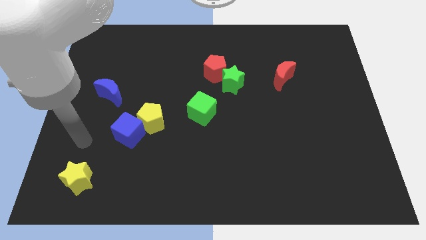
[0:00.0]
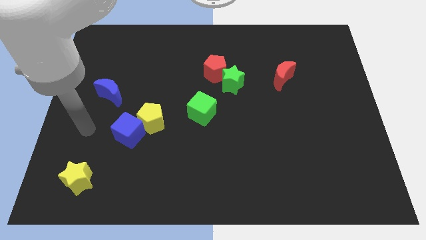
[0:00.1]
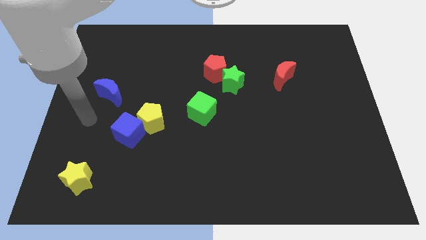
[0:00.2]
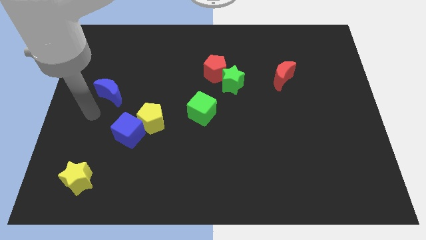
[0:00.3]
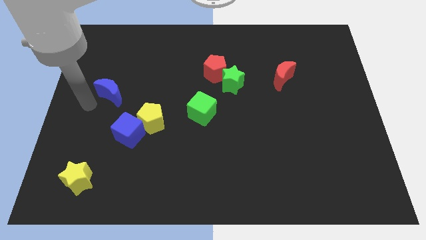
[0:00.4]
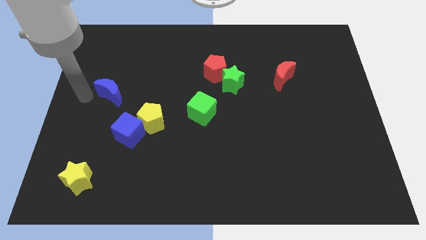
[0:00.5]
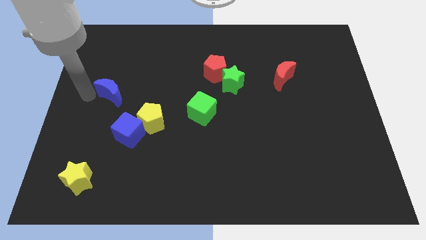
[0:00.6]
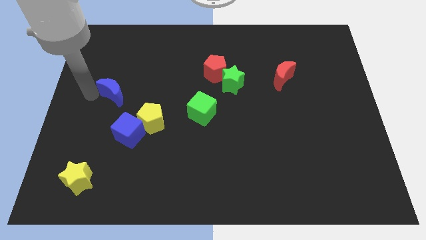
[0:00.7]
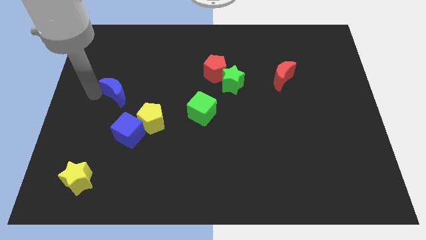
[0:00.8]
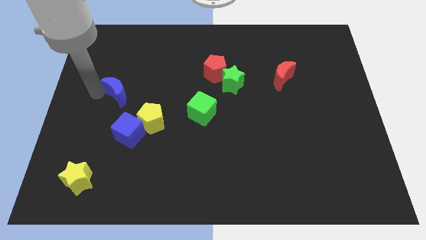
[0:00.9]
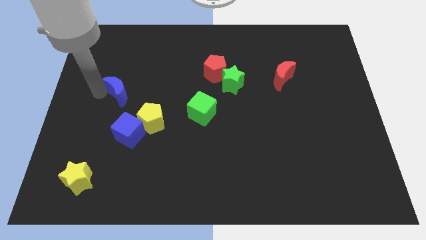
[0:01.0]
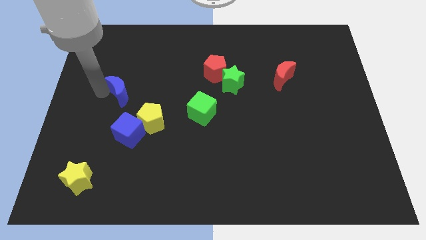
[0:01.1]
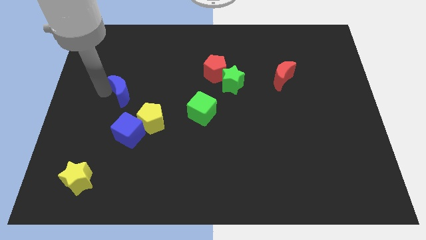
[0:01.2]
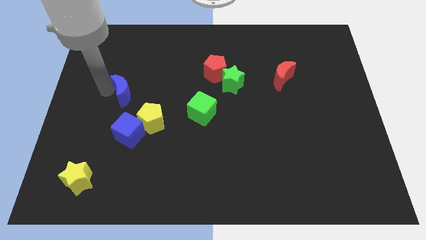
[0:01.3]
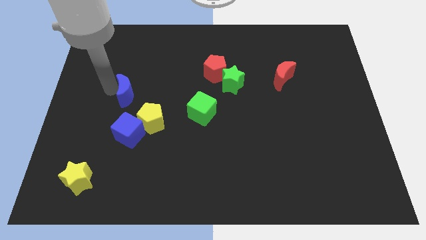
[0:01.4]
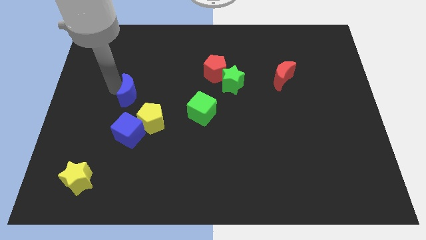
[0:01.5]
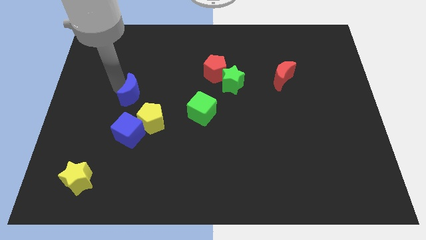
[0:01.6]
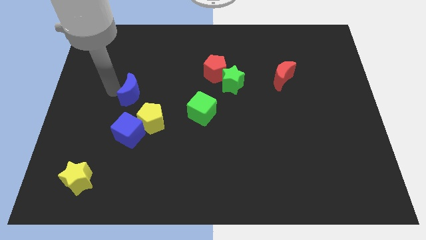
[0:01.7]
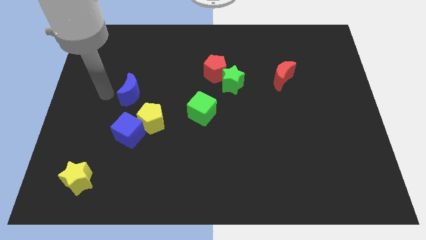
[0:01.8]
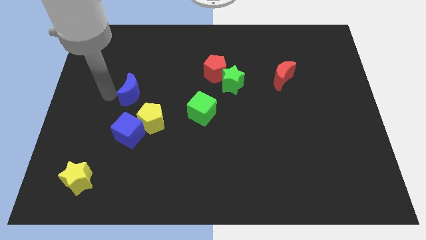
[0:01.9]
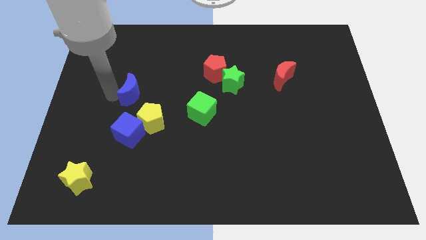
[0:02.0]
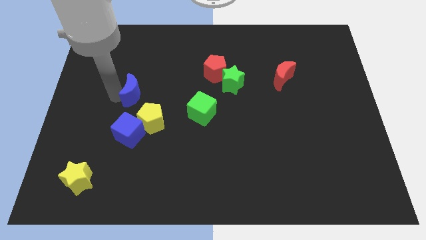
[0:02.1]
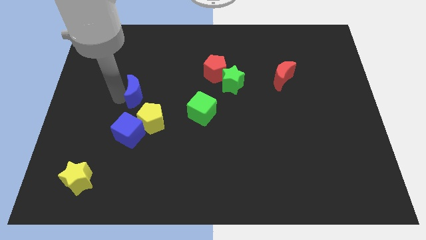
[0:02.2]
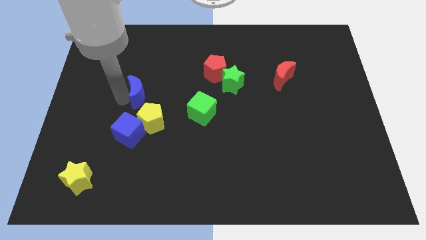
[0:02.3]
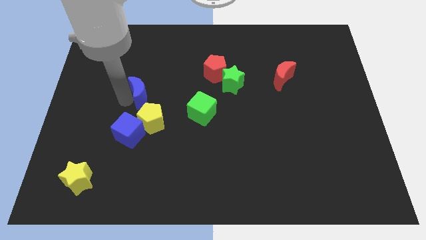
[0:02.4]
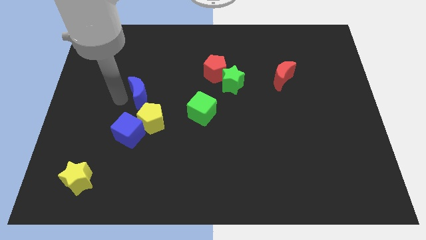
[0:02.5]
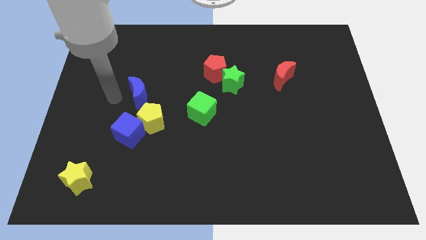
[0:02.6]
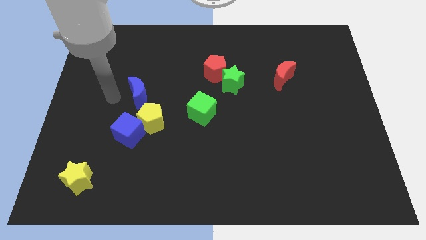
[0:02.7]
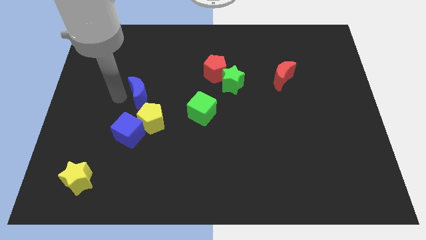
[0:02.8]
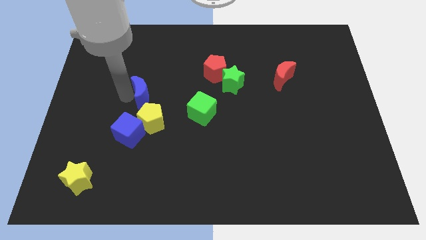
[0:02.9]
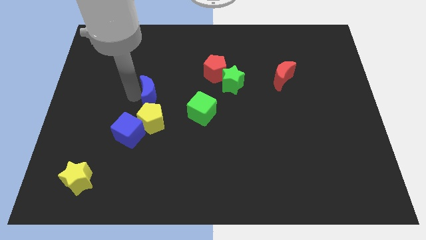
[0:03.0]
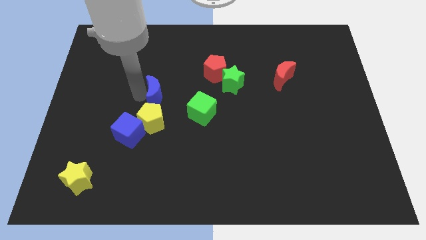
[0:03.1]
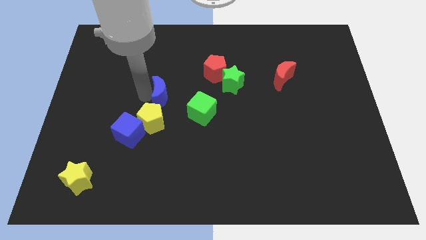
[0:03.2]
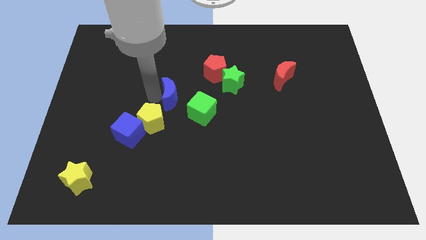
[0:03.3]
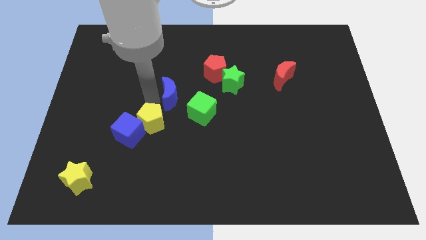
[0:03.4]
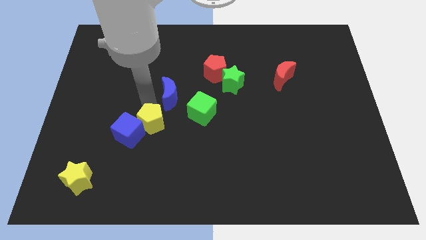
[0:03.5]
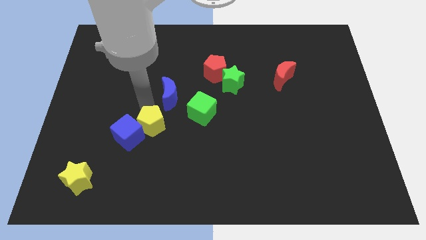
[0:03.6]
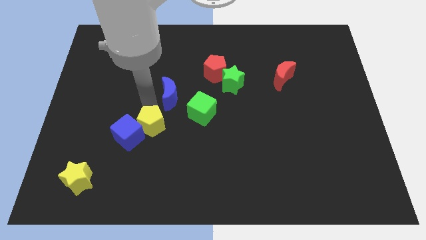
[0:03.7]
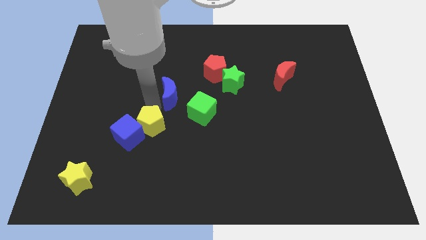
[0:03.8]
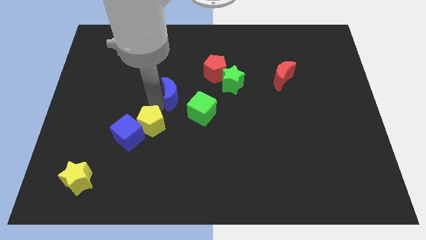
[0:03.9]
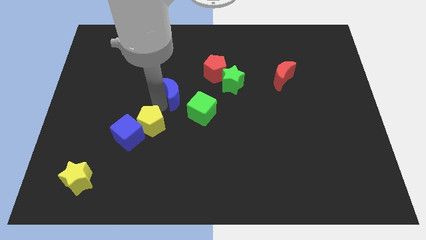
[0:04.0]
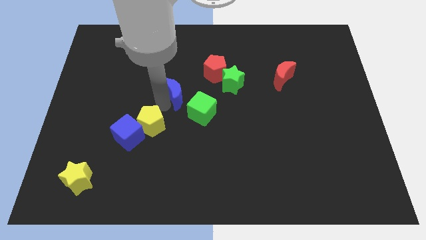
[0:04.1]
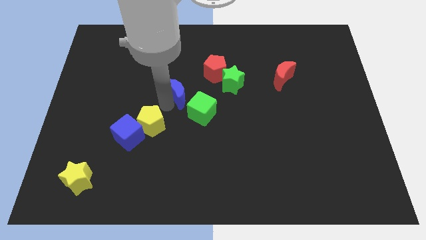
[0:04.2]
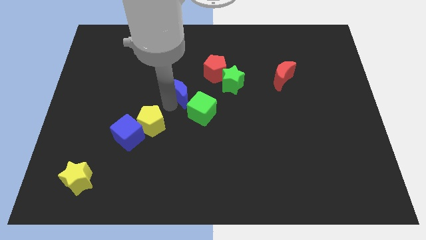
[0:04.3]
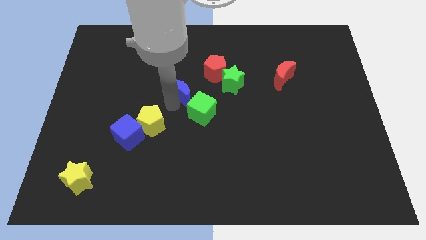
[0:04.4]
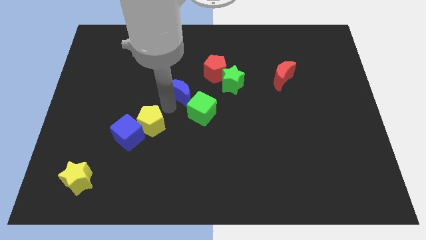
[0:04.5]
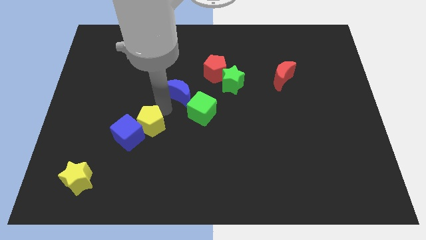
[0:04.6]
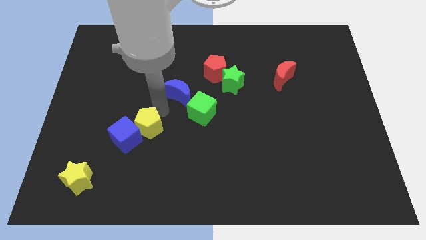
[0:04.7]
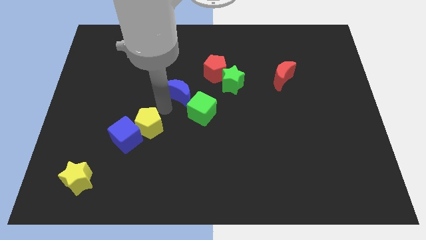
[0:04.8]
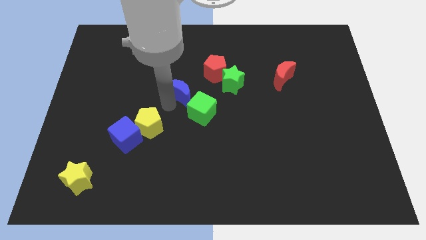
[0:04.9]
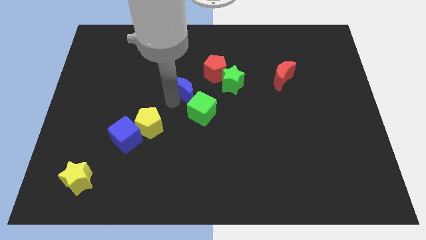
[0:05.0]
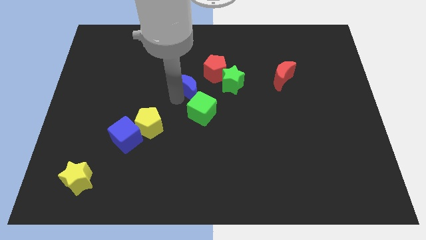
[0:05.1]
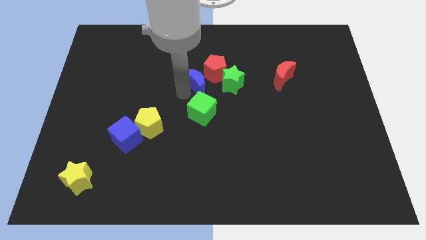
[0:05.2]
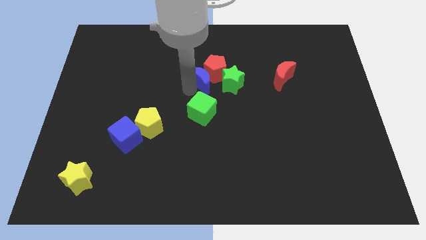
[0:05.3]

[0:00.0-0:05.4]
push the blue moon to the red pentagon

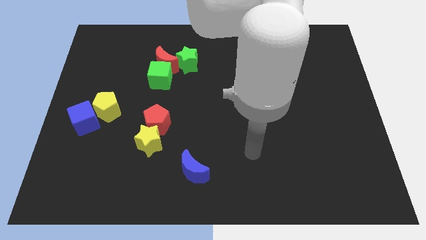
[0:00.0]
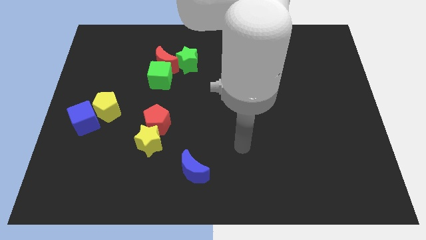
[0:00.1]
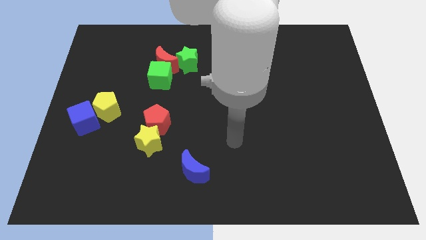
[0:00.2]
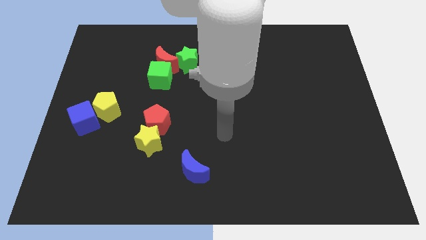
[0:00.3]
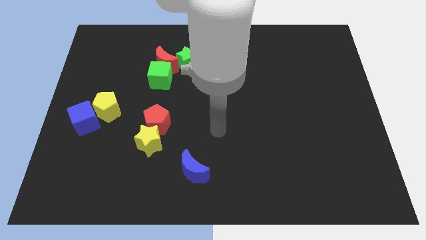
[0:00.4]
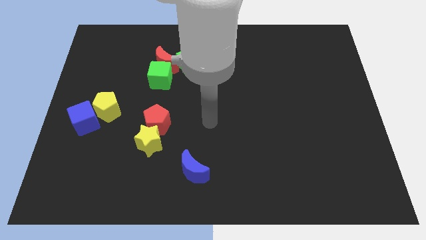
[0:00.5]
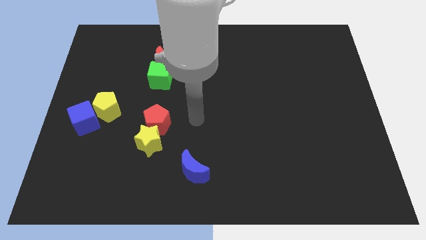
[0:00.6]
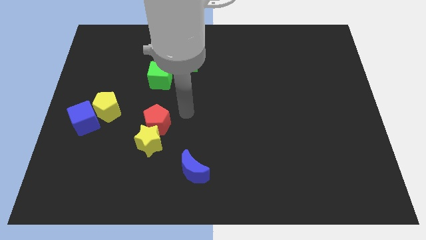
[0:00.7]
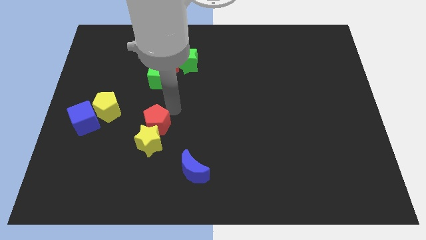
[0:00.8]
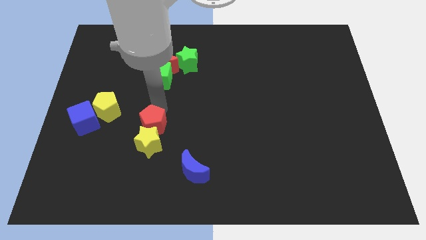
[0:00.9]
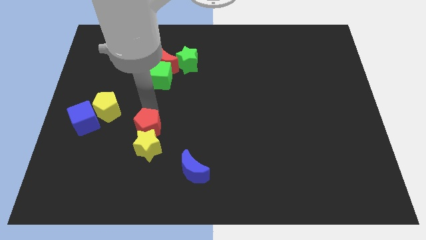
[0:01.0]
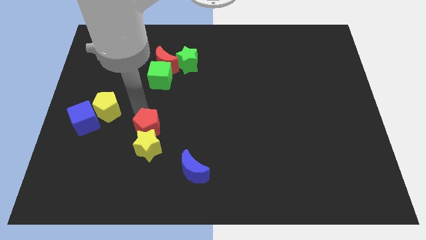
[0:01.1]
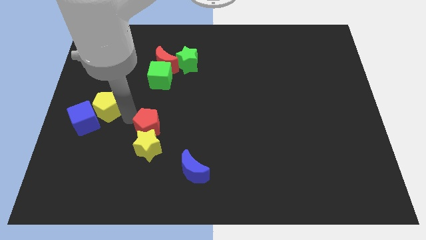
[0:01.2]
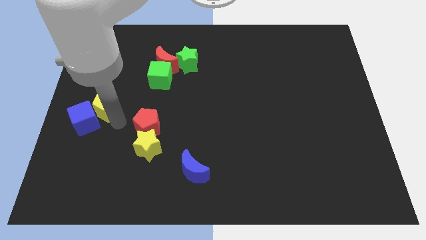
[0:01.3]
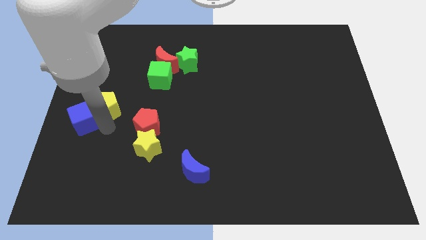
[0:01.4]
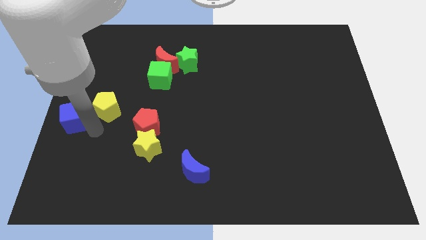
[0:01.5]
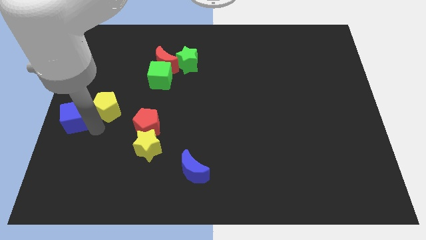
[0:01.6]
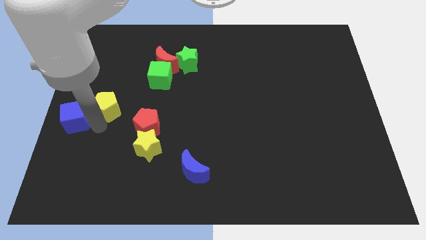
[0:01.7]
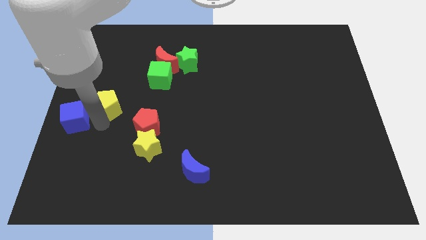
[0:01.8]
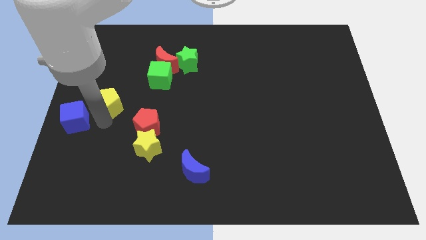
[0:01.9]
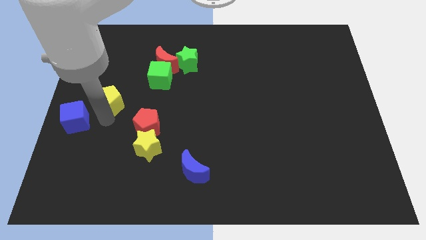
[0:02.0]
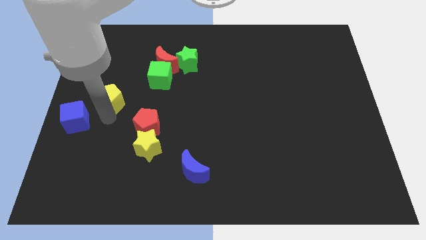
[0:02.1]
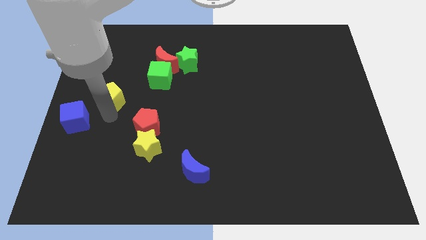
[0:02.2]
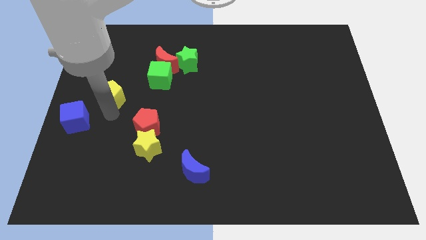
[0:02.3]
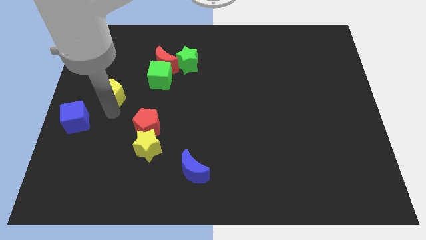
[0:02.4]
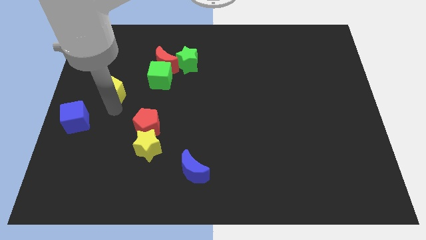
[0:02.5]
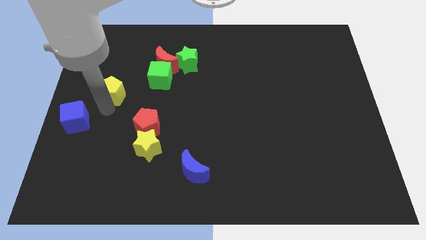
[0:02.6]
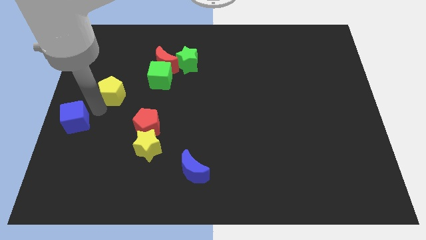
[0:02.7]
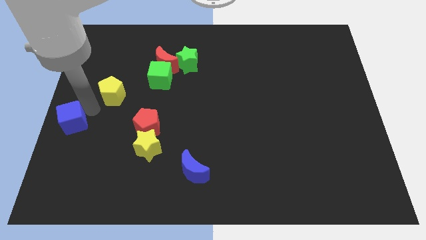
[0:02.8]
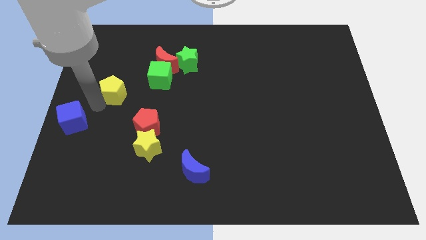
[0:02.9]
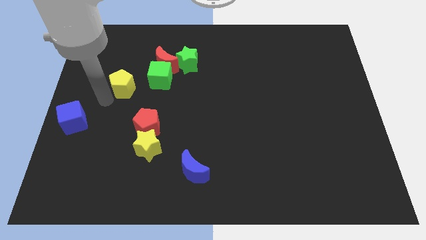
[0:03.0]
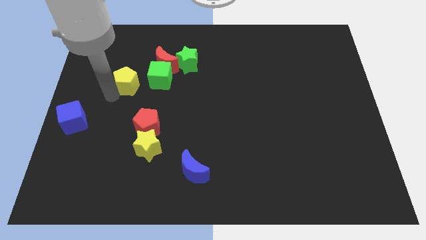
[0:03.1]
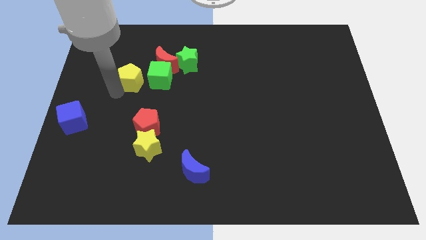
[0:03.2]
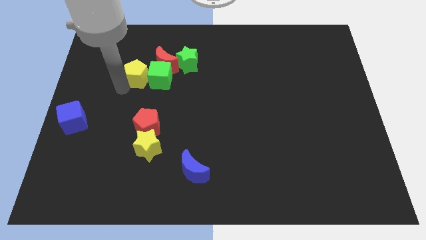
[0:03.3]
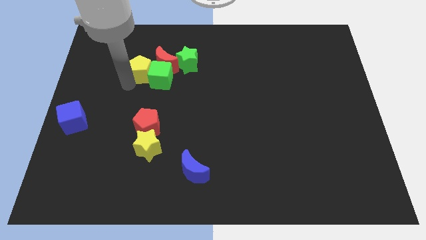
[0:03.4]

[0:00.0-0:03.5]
put the yellow pentagon to the red moon
